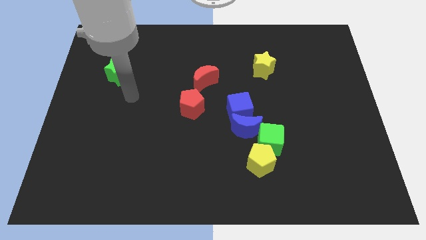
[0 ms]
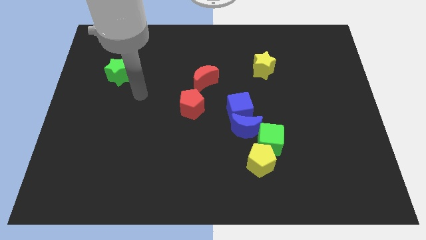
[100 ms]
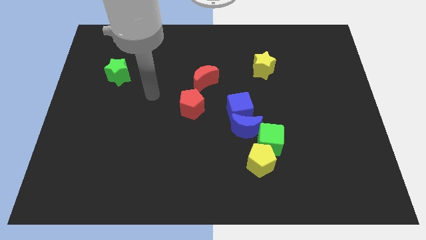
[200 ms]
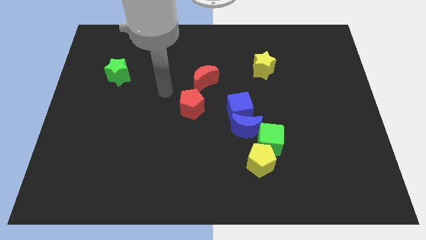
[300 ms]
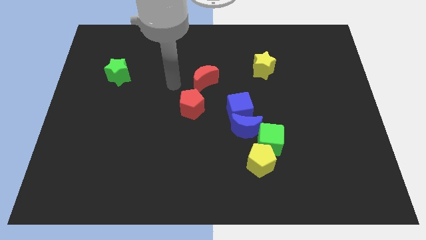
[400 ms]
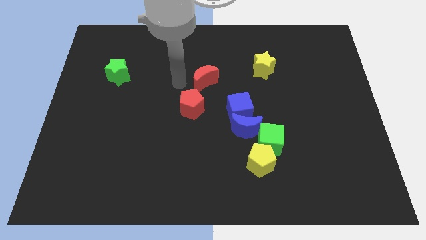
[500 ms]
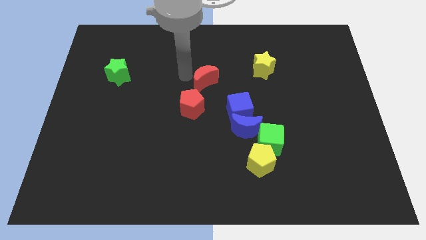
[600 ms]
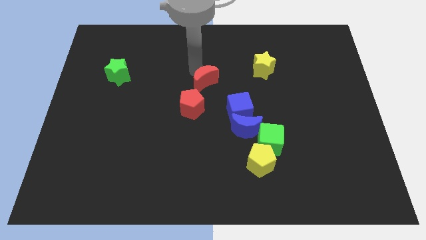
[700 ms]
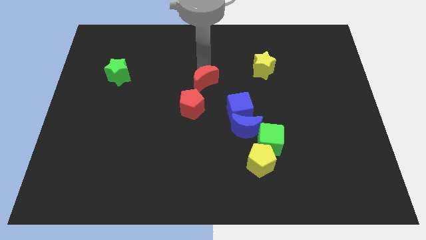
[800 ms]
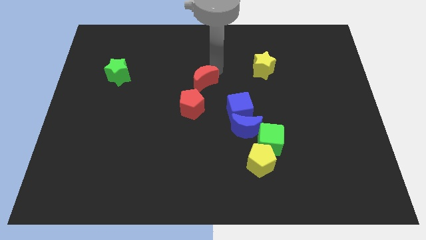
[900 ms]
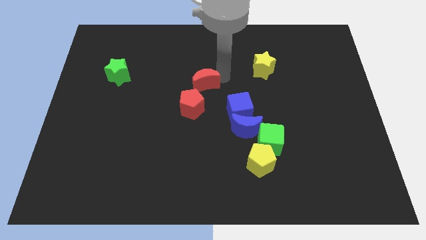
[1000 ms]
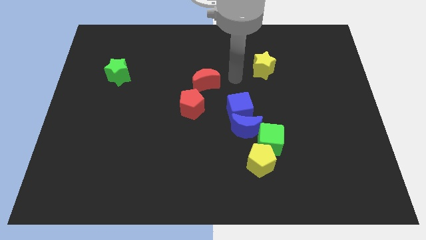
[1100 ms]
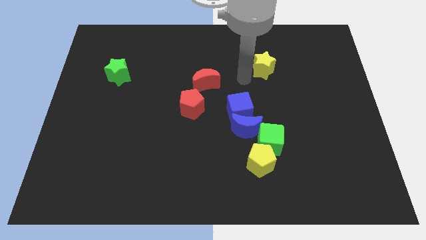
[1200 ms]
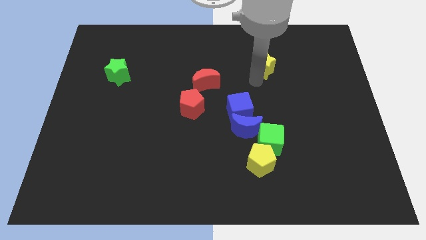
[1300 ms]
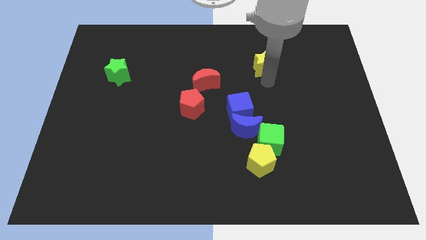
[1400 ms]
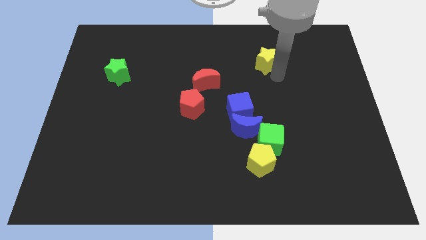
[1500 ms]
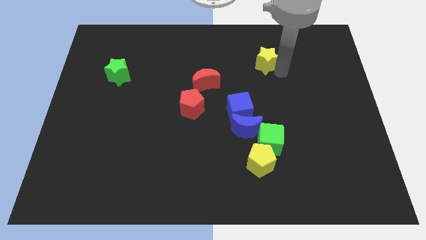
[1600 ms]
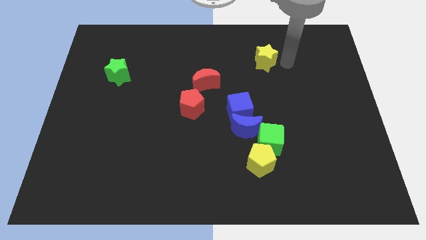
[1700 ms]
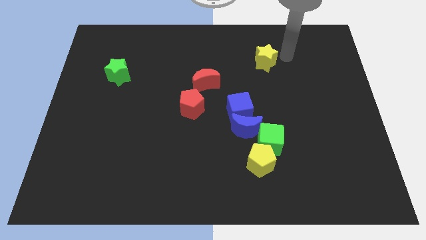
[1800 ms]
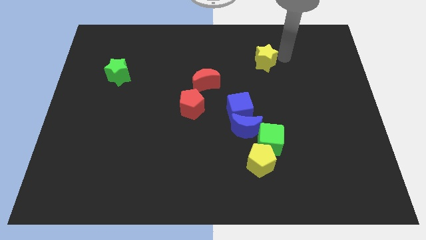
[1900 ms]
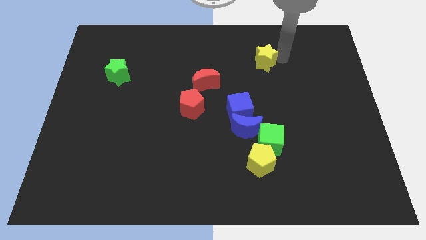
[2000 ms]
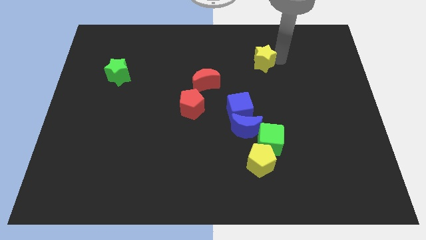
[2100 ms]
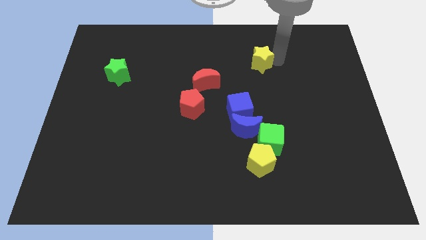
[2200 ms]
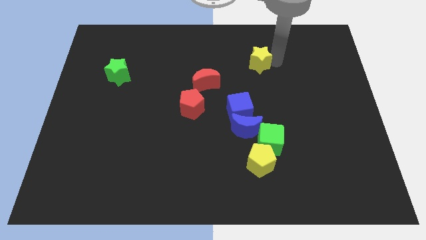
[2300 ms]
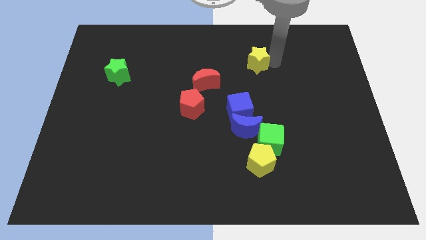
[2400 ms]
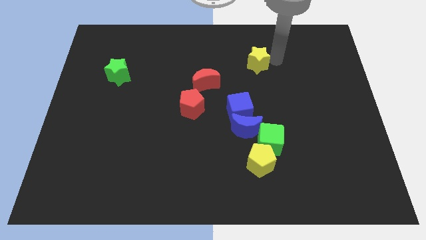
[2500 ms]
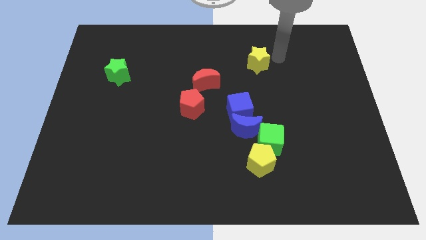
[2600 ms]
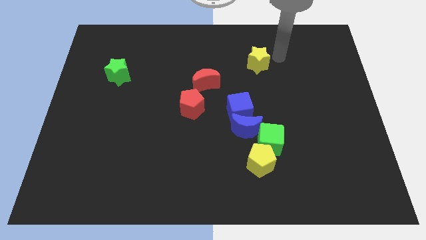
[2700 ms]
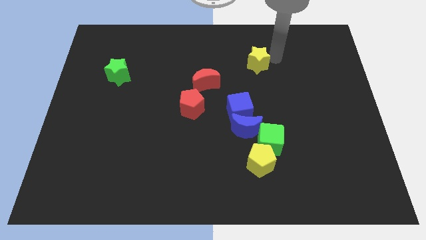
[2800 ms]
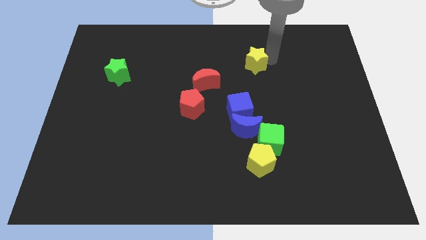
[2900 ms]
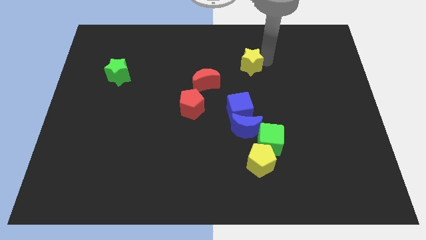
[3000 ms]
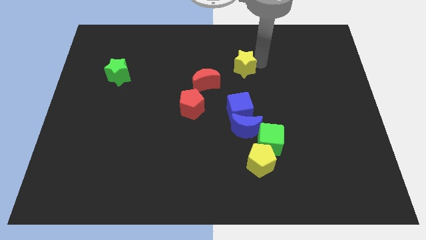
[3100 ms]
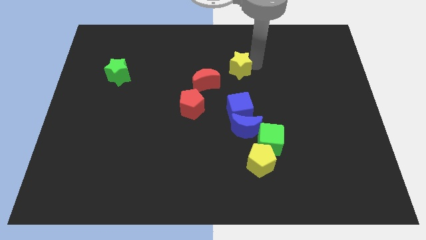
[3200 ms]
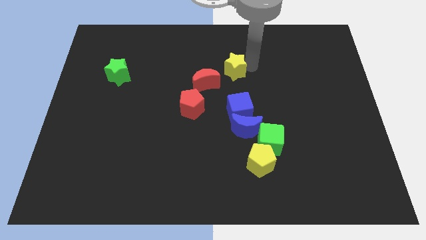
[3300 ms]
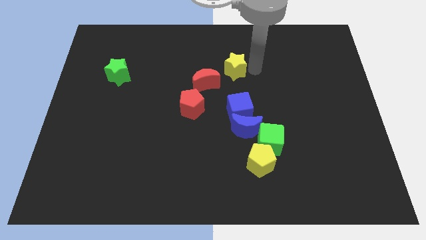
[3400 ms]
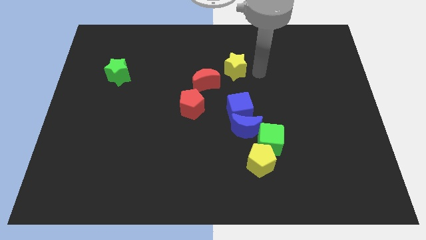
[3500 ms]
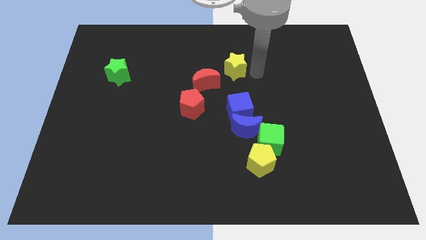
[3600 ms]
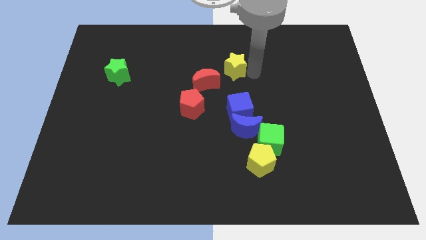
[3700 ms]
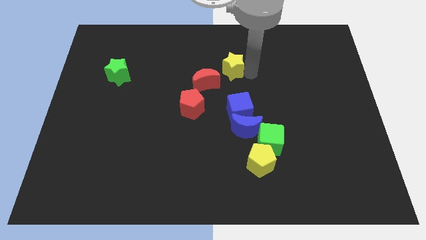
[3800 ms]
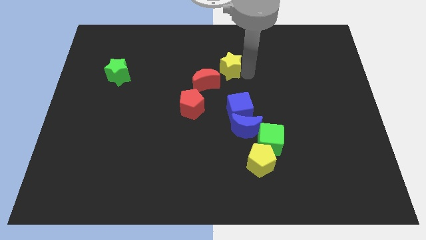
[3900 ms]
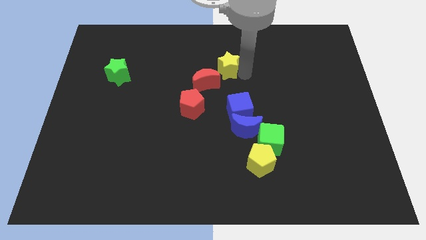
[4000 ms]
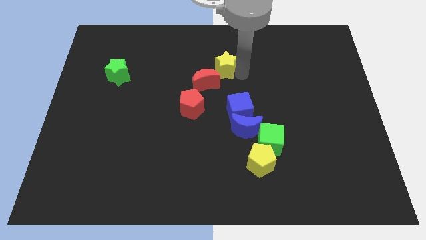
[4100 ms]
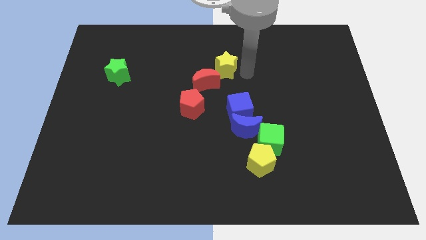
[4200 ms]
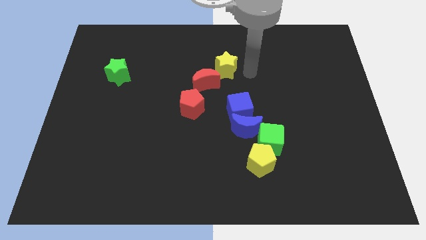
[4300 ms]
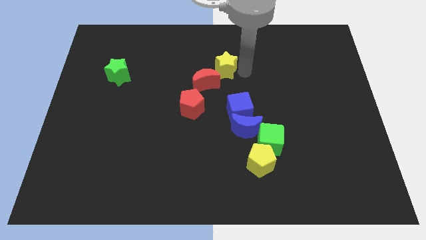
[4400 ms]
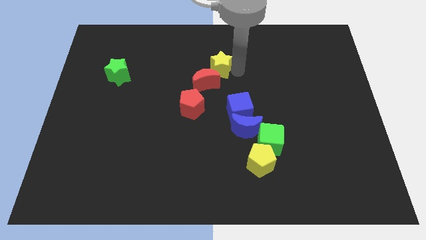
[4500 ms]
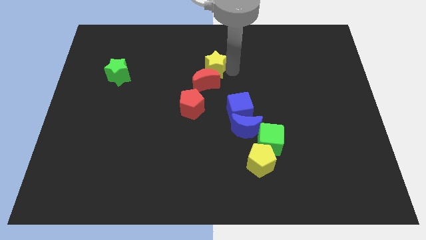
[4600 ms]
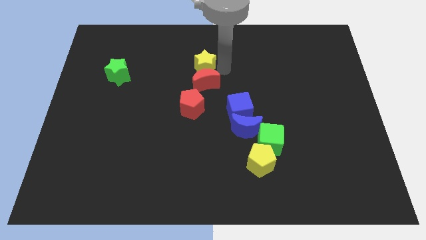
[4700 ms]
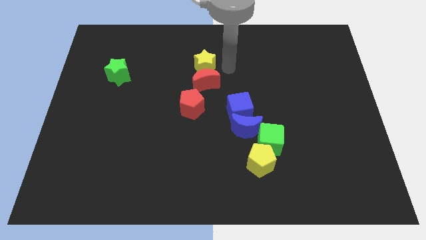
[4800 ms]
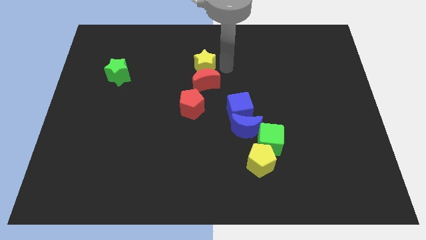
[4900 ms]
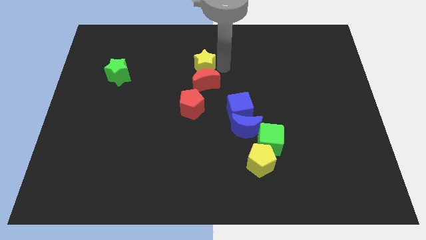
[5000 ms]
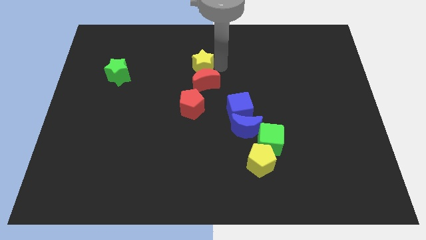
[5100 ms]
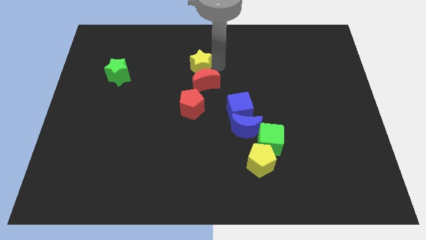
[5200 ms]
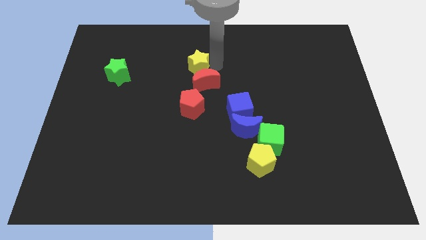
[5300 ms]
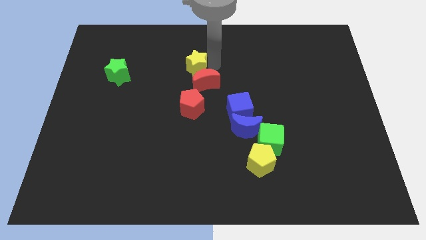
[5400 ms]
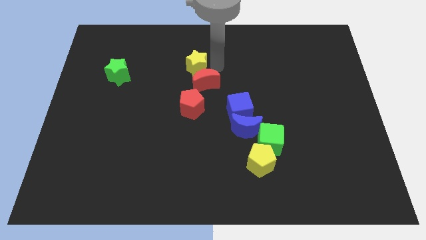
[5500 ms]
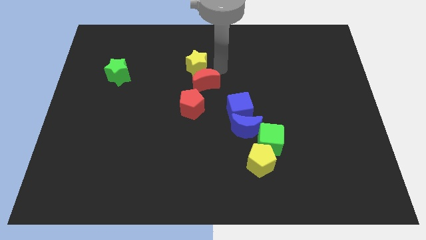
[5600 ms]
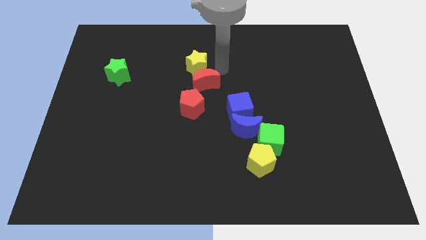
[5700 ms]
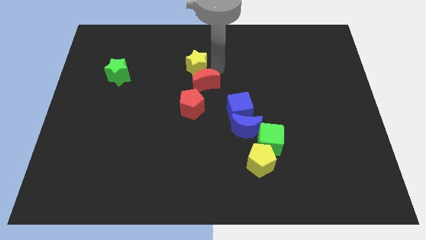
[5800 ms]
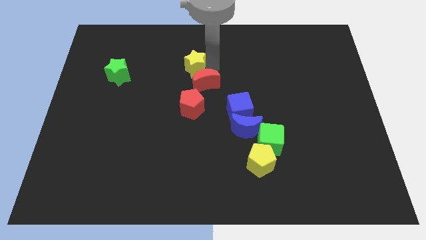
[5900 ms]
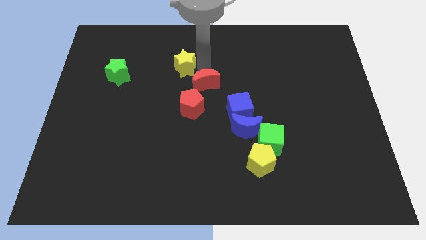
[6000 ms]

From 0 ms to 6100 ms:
move the yellow star left

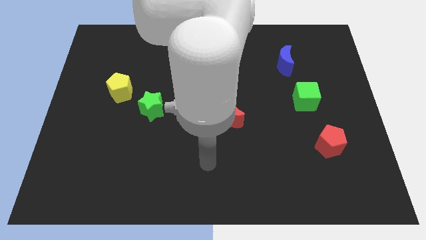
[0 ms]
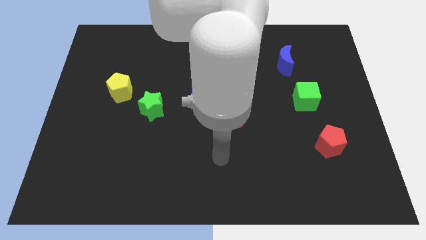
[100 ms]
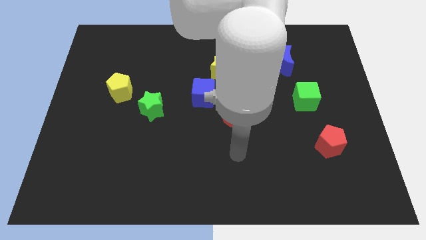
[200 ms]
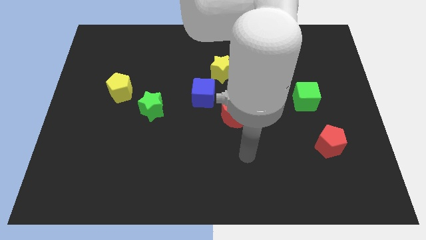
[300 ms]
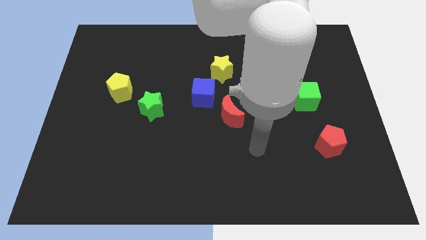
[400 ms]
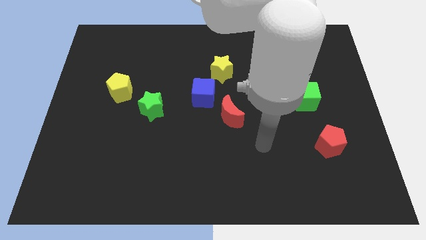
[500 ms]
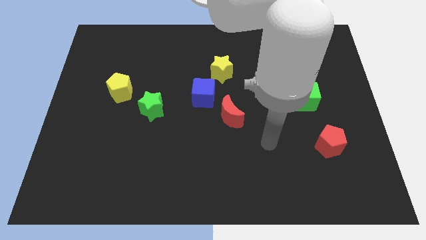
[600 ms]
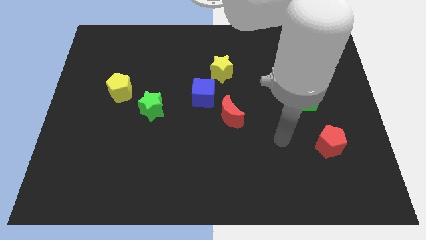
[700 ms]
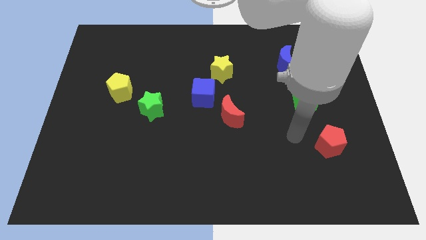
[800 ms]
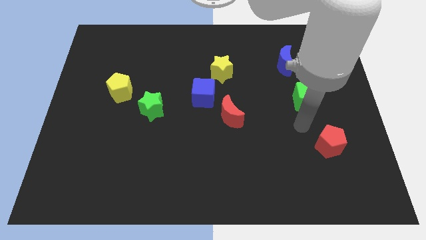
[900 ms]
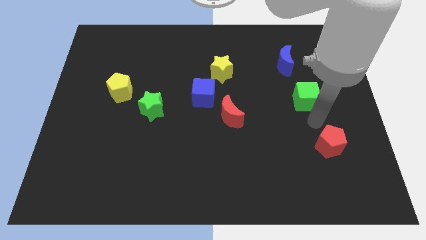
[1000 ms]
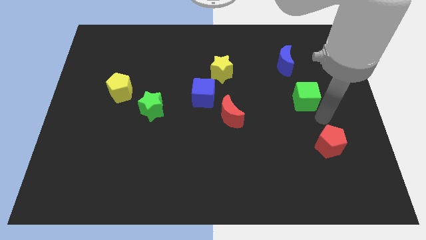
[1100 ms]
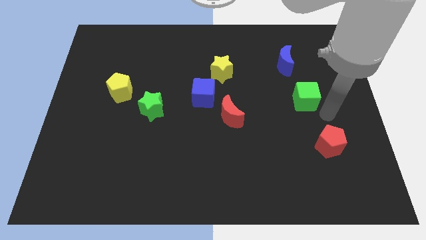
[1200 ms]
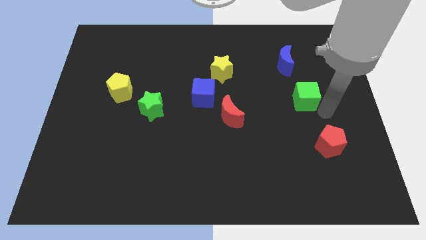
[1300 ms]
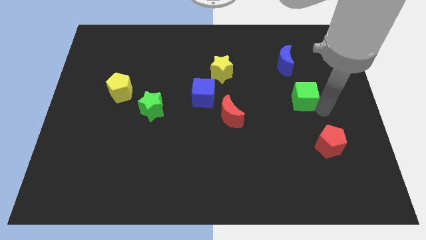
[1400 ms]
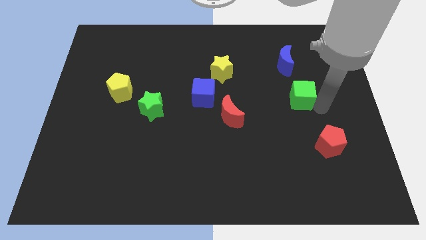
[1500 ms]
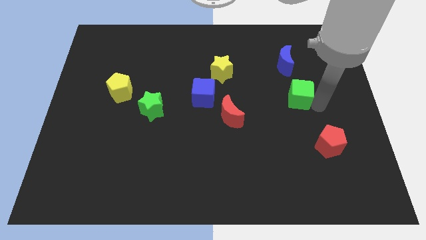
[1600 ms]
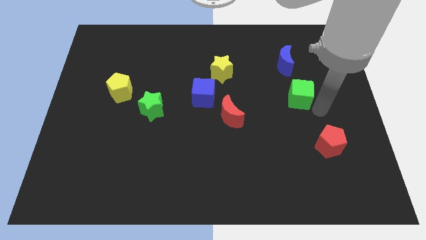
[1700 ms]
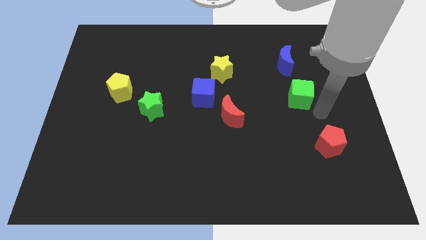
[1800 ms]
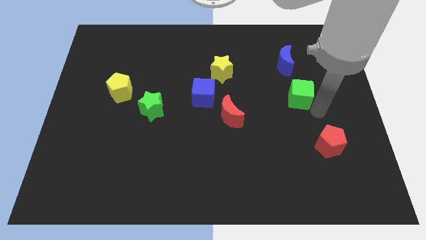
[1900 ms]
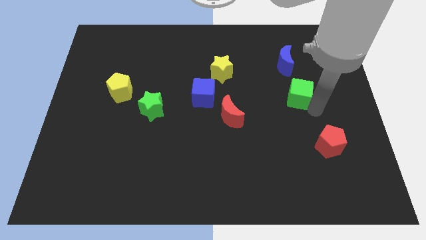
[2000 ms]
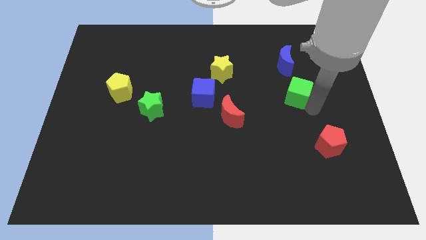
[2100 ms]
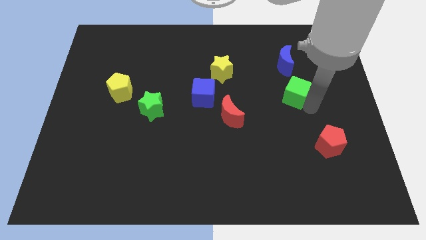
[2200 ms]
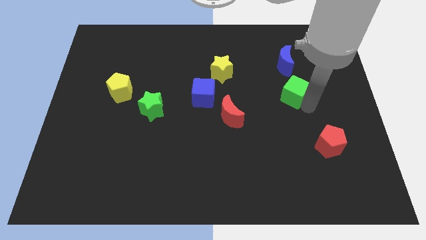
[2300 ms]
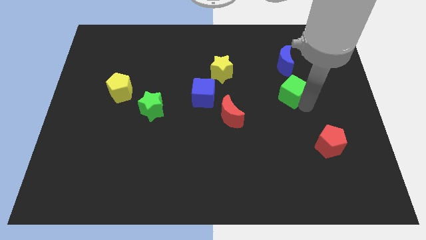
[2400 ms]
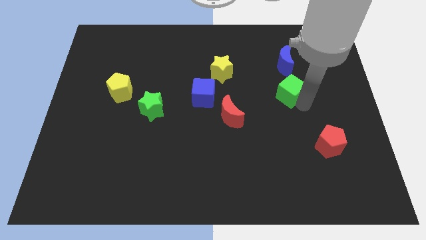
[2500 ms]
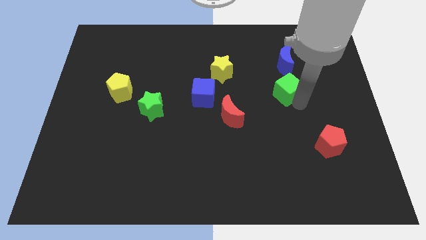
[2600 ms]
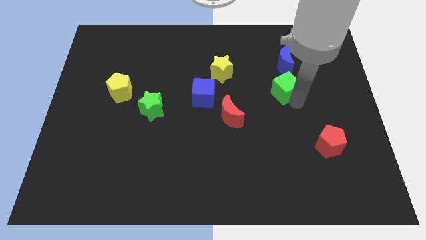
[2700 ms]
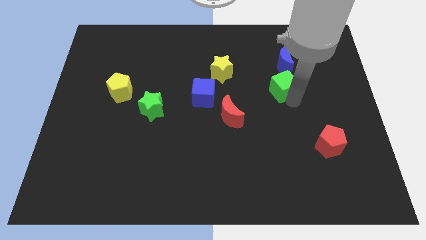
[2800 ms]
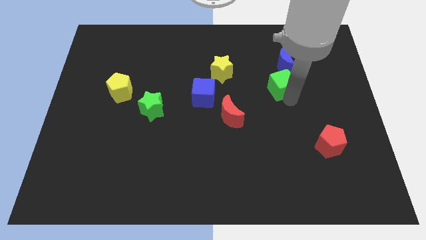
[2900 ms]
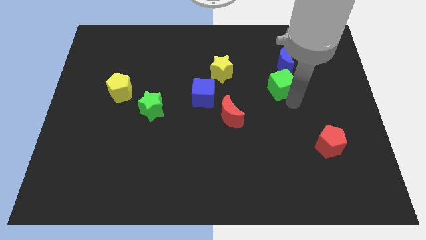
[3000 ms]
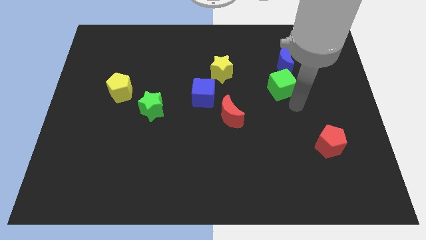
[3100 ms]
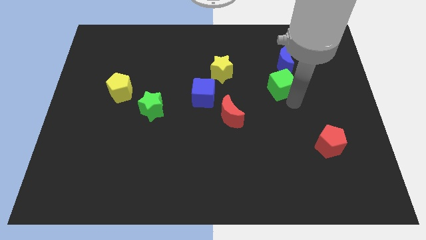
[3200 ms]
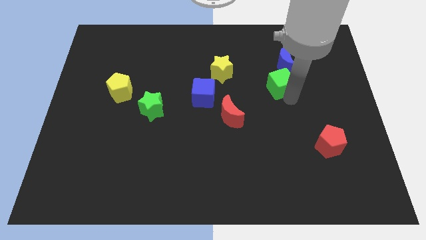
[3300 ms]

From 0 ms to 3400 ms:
move the green cube diagonally up and to the left a bit
